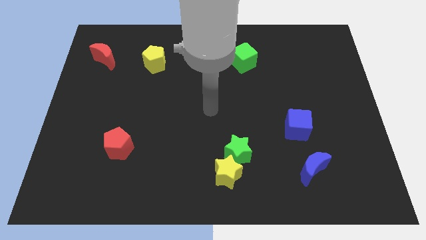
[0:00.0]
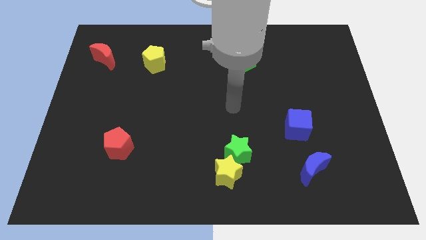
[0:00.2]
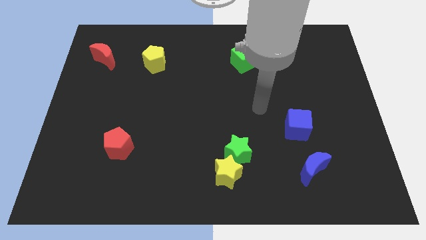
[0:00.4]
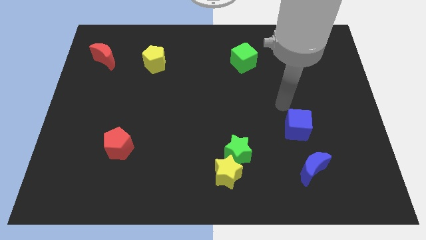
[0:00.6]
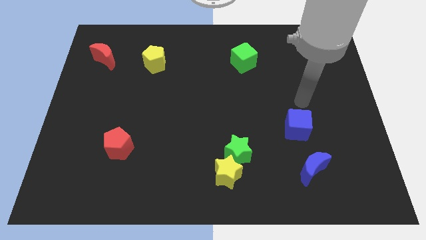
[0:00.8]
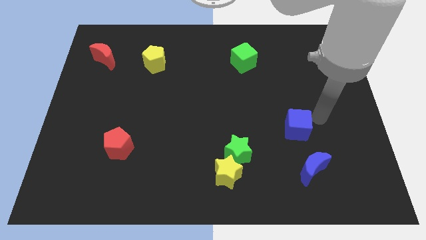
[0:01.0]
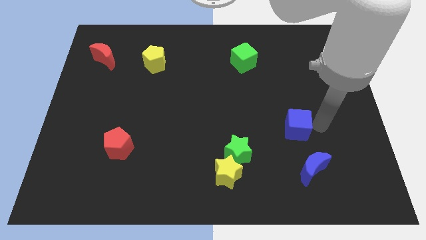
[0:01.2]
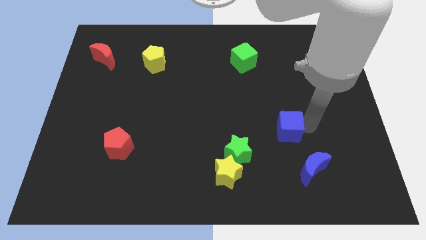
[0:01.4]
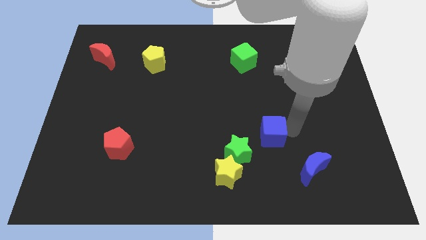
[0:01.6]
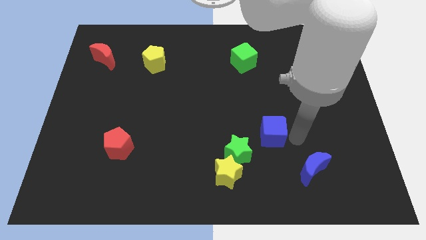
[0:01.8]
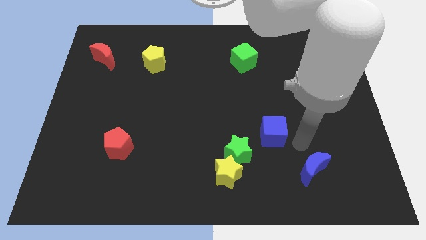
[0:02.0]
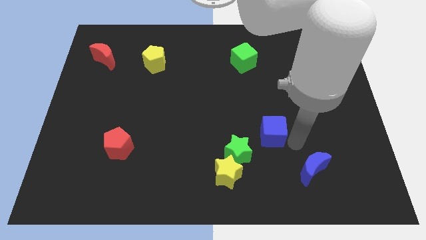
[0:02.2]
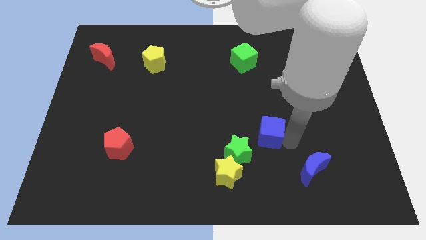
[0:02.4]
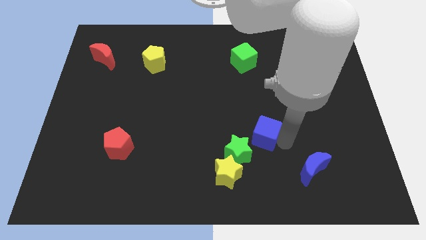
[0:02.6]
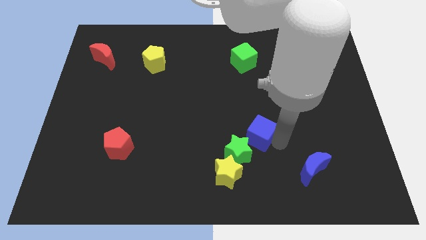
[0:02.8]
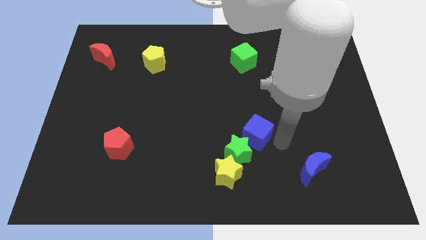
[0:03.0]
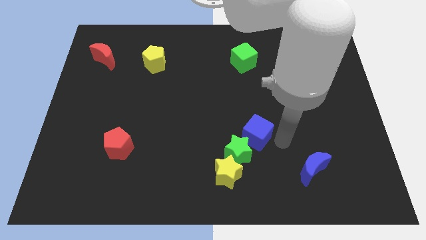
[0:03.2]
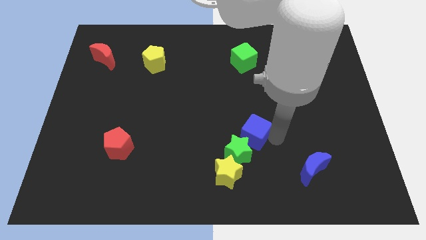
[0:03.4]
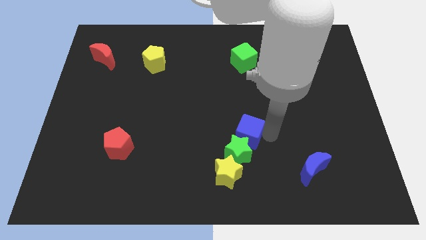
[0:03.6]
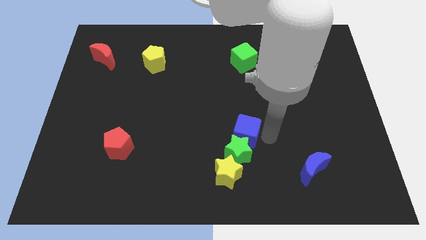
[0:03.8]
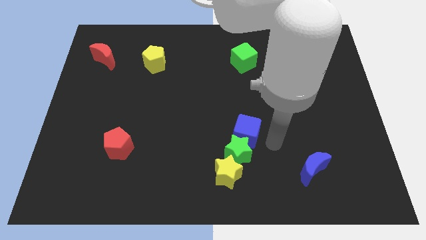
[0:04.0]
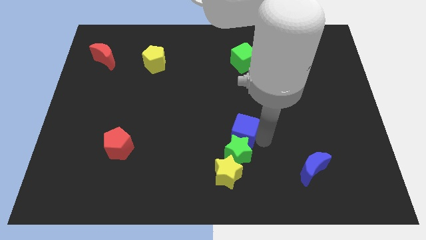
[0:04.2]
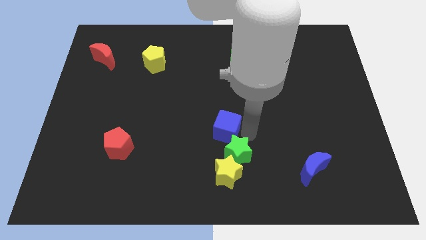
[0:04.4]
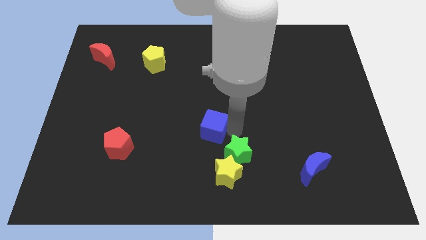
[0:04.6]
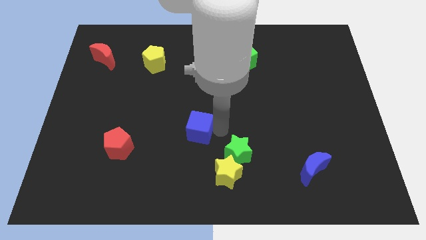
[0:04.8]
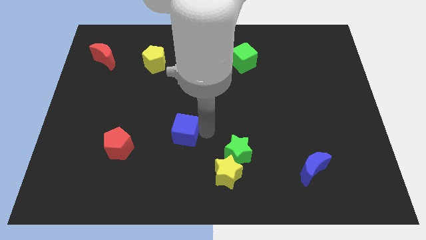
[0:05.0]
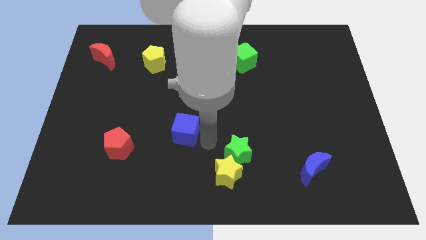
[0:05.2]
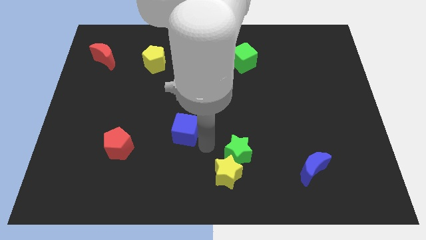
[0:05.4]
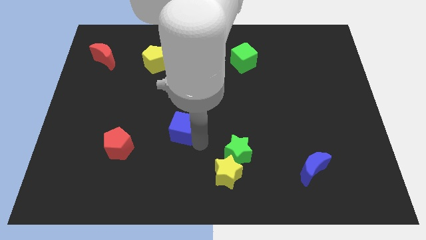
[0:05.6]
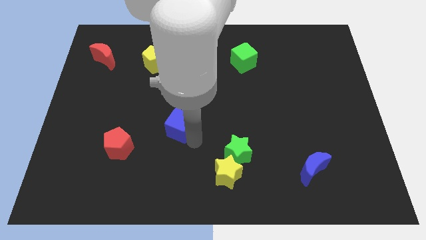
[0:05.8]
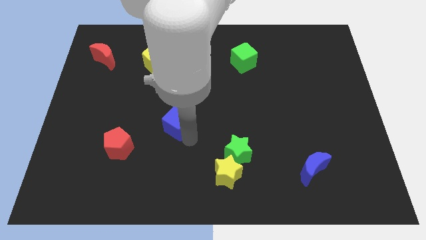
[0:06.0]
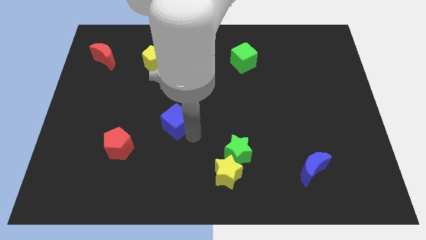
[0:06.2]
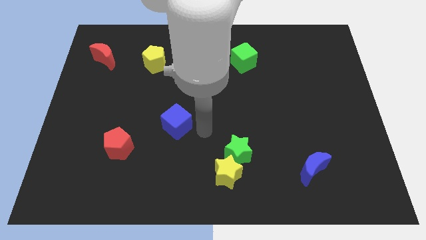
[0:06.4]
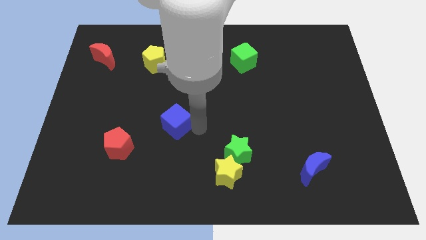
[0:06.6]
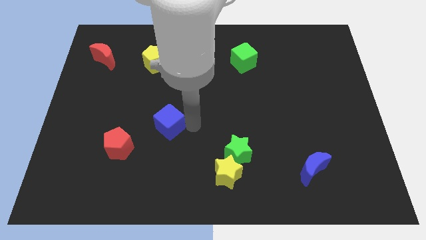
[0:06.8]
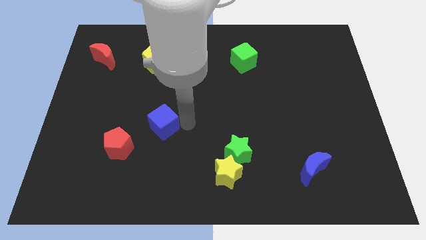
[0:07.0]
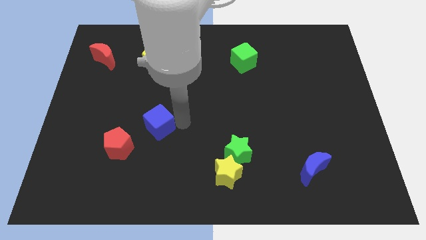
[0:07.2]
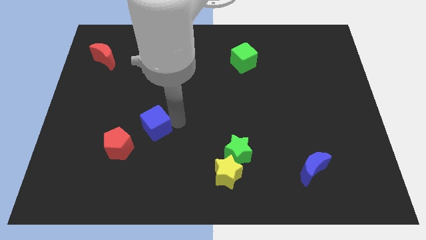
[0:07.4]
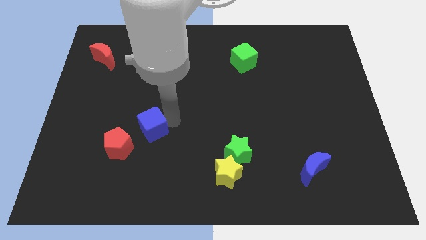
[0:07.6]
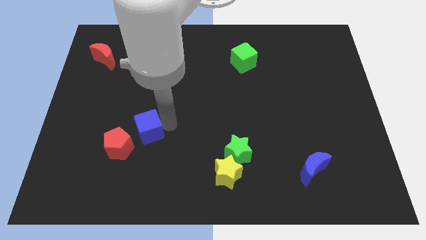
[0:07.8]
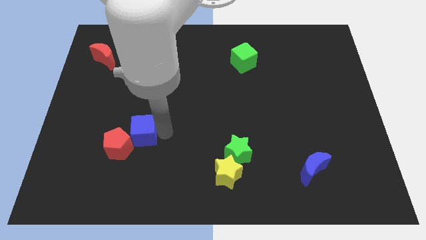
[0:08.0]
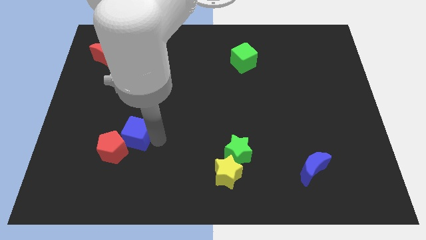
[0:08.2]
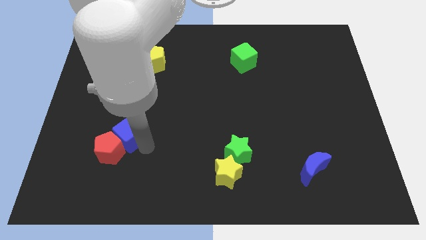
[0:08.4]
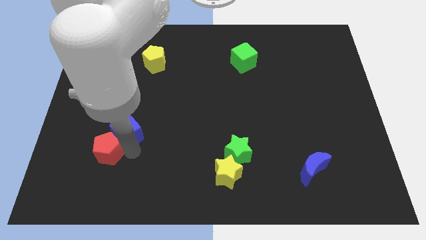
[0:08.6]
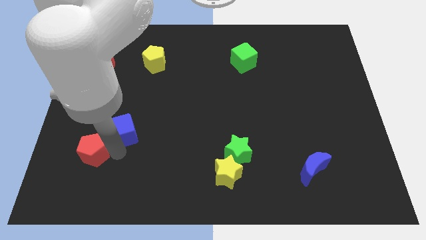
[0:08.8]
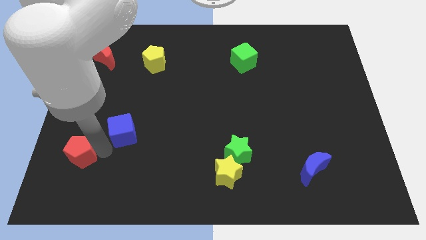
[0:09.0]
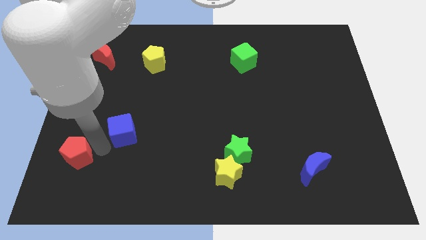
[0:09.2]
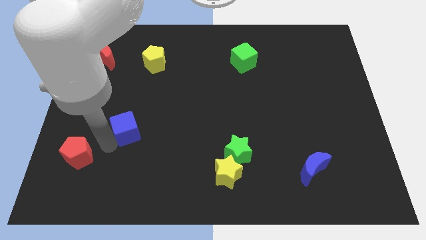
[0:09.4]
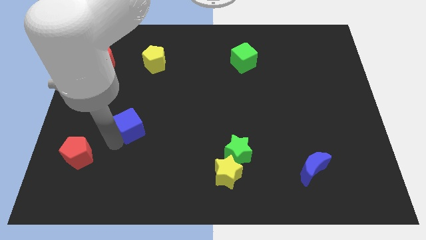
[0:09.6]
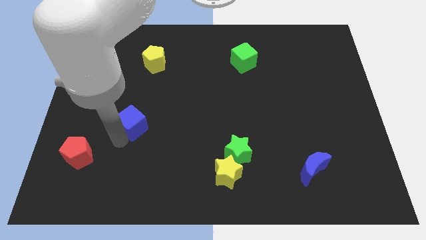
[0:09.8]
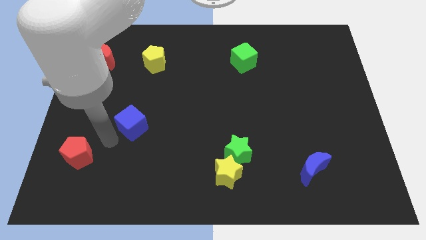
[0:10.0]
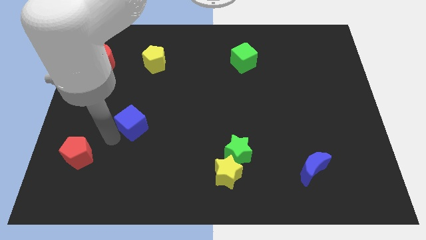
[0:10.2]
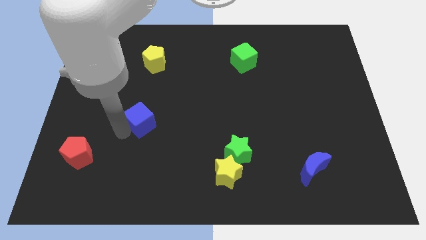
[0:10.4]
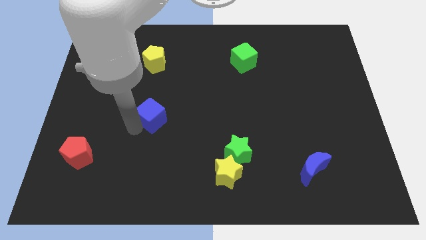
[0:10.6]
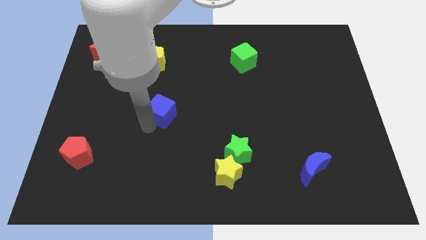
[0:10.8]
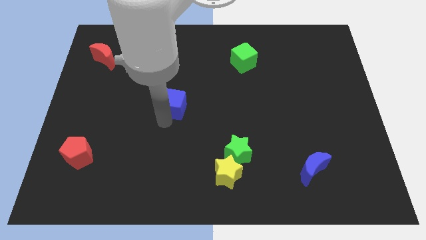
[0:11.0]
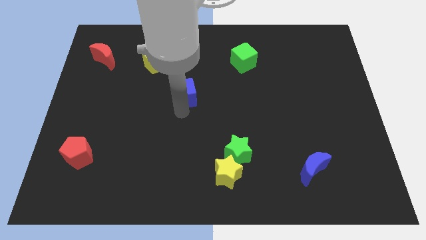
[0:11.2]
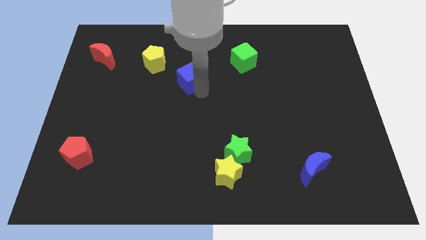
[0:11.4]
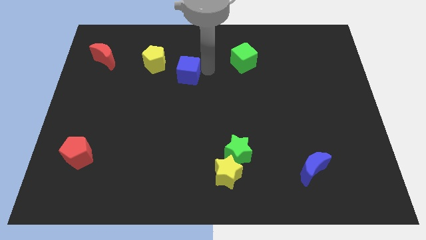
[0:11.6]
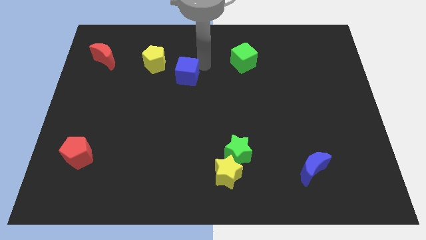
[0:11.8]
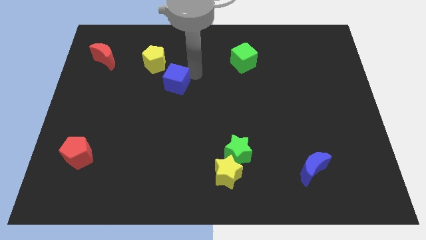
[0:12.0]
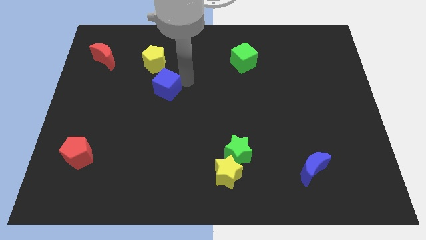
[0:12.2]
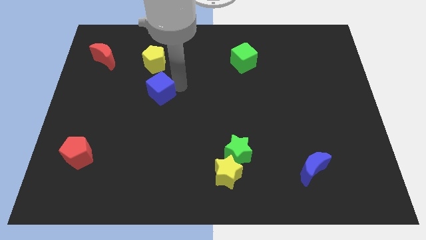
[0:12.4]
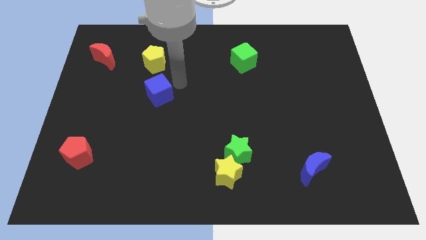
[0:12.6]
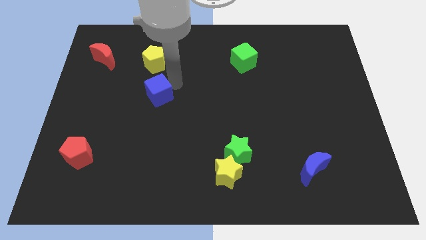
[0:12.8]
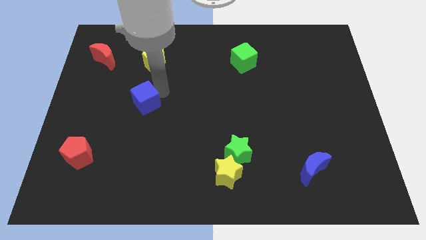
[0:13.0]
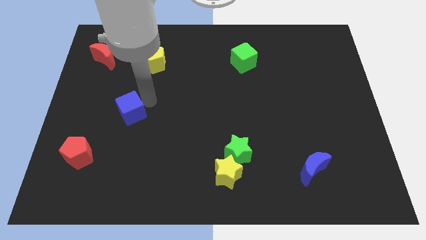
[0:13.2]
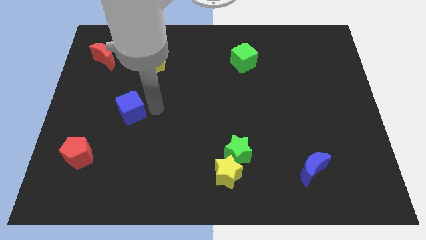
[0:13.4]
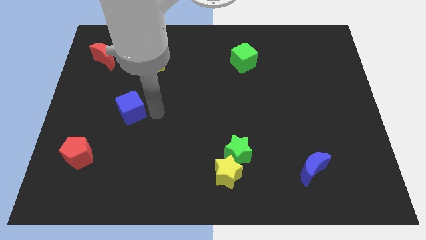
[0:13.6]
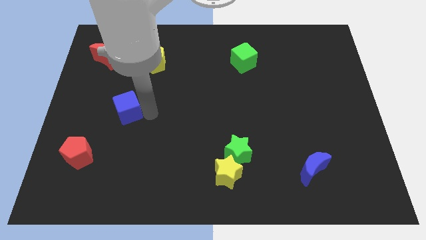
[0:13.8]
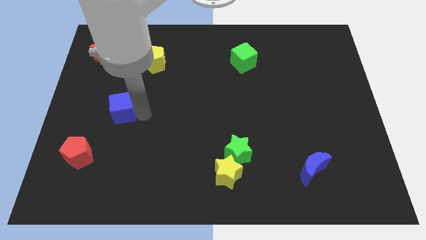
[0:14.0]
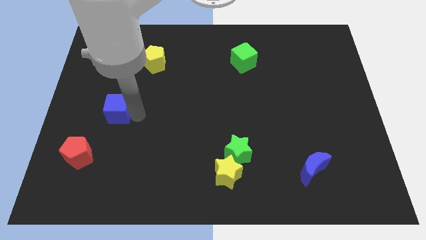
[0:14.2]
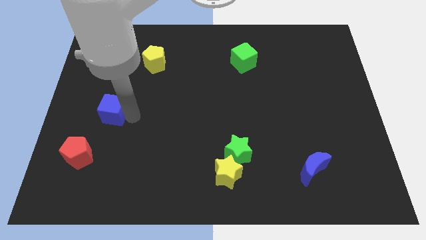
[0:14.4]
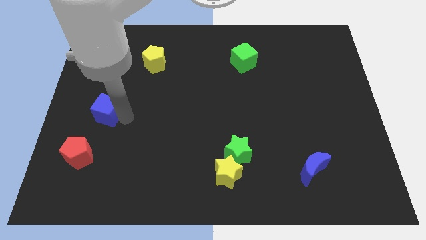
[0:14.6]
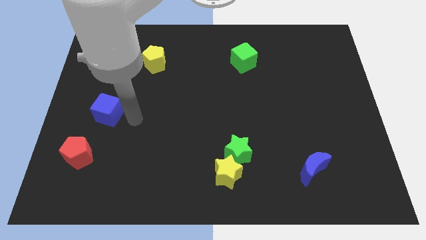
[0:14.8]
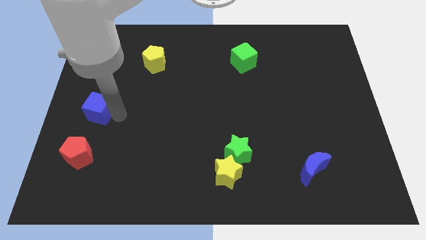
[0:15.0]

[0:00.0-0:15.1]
slide the blue cube to the left side of the board
